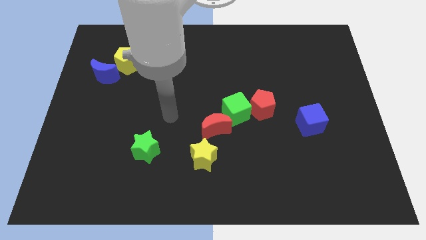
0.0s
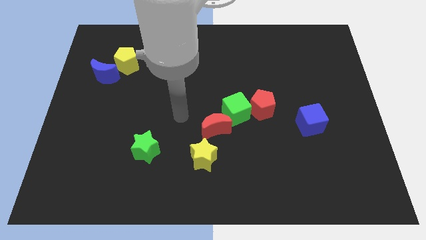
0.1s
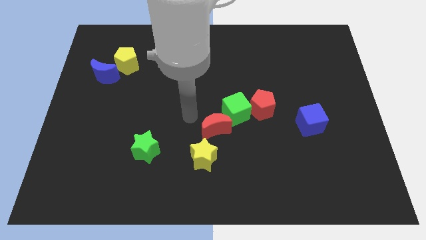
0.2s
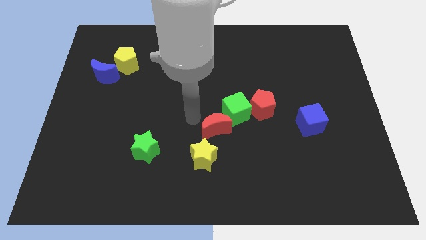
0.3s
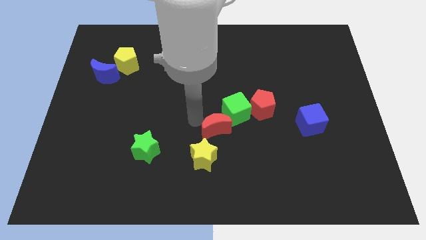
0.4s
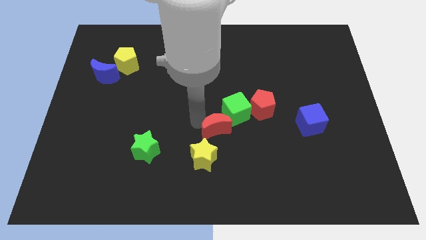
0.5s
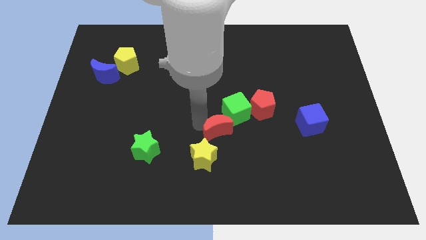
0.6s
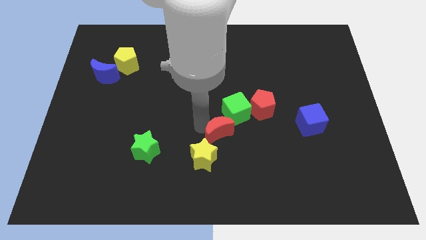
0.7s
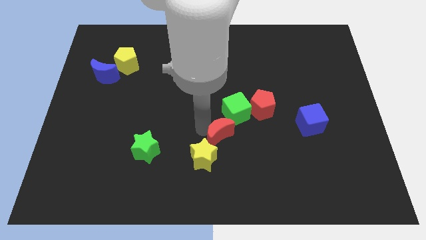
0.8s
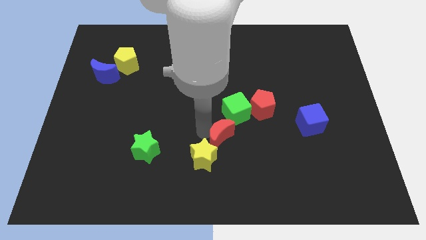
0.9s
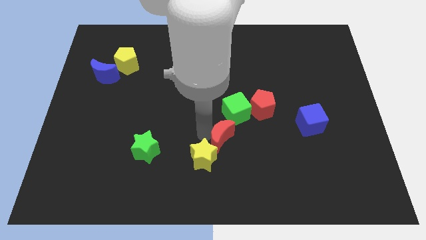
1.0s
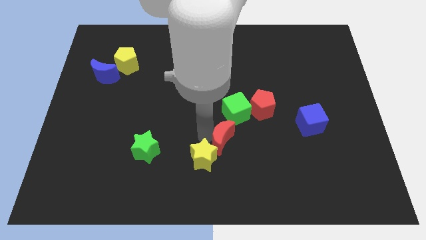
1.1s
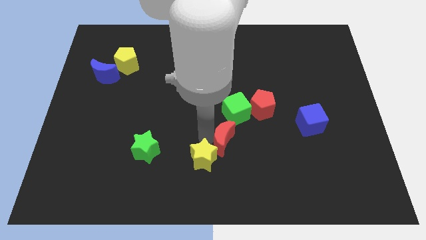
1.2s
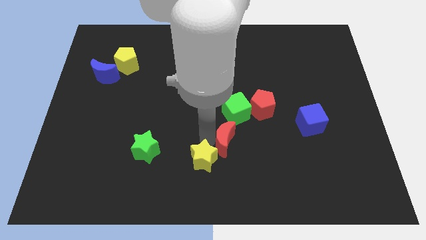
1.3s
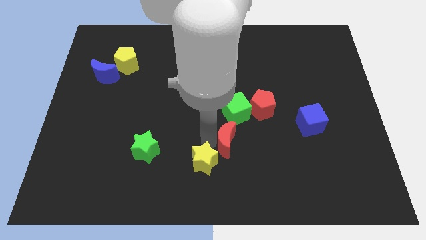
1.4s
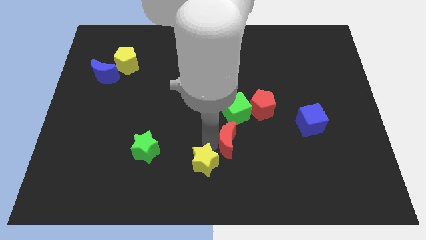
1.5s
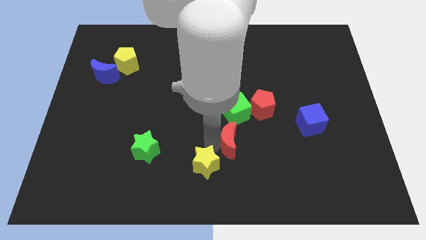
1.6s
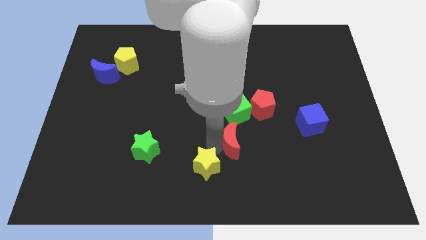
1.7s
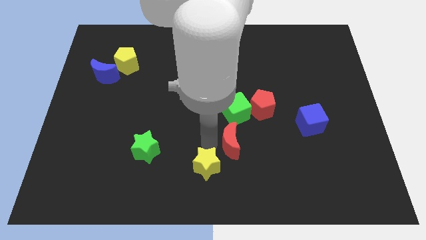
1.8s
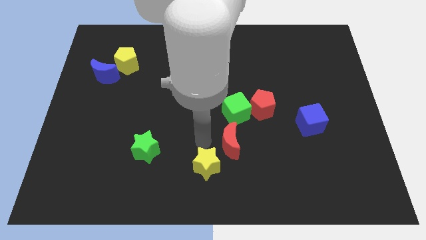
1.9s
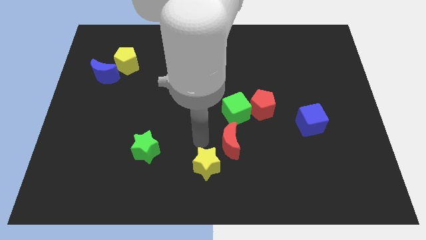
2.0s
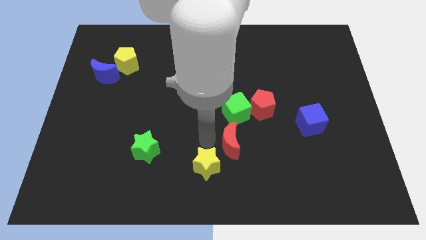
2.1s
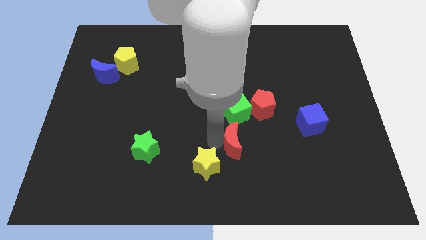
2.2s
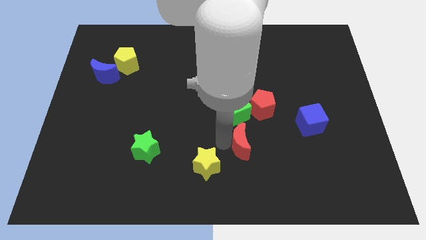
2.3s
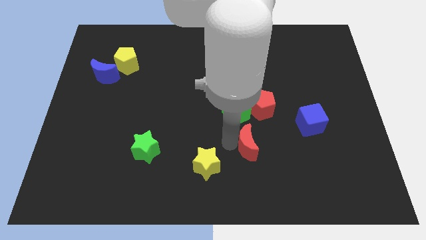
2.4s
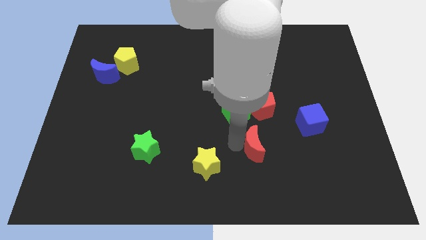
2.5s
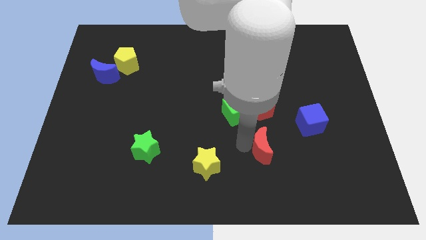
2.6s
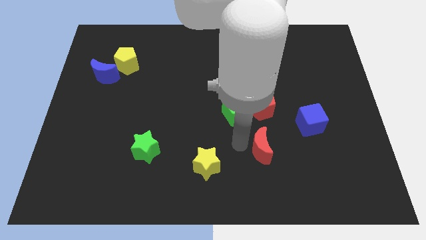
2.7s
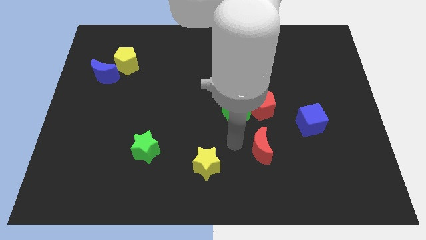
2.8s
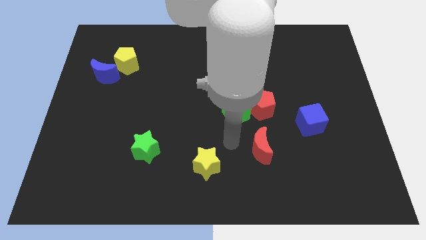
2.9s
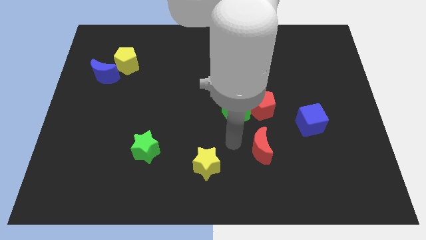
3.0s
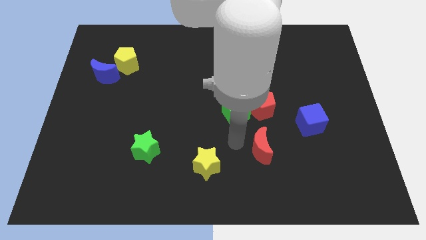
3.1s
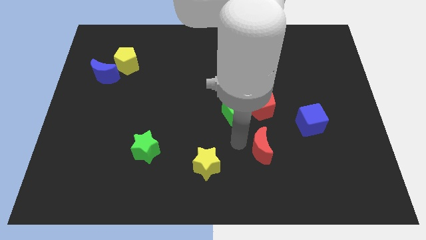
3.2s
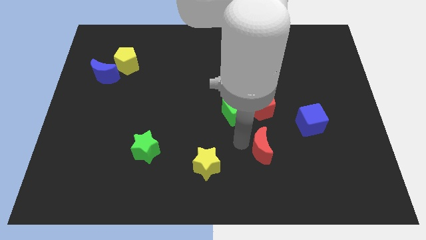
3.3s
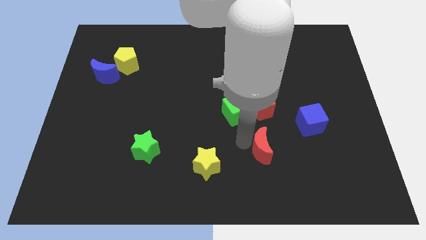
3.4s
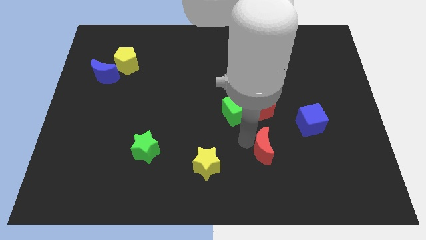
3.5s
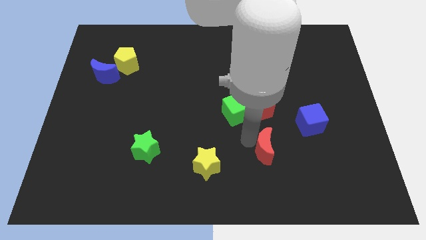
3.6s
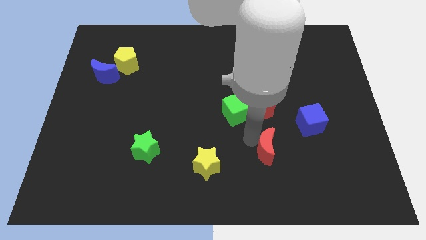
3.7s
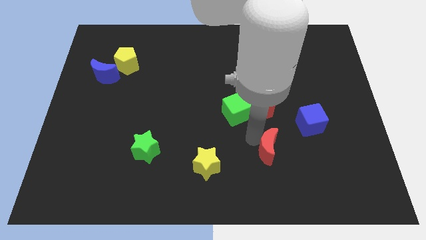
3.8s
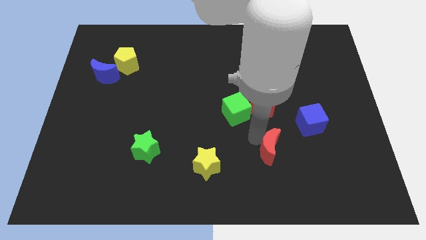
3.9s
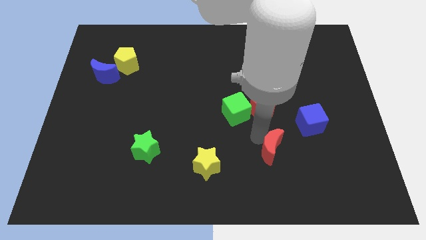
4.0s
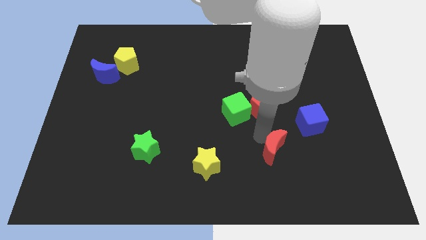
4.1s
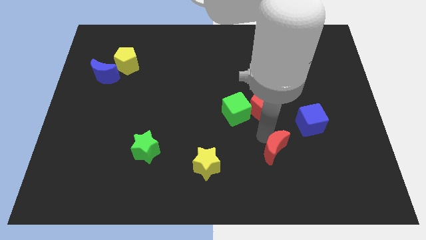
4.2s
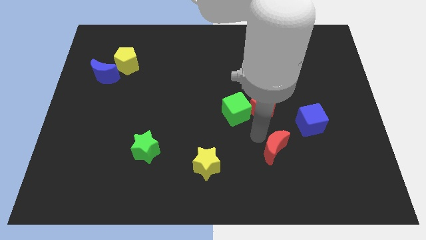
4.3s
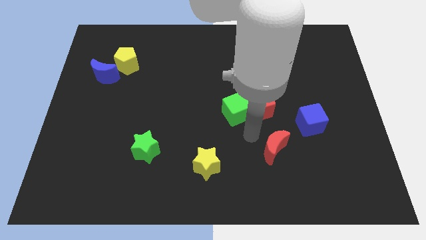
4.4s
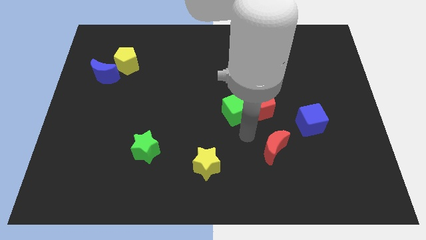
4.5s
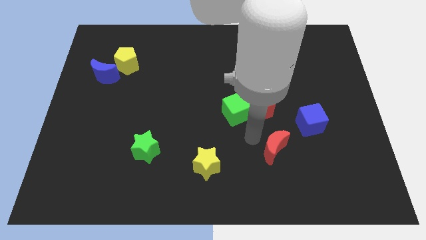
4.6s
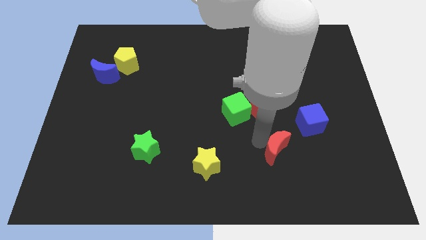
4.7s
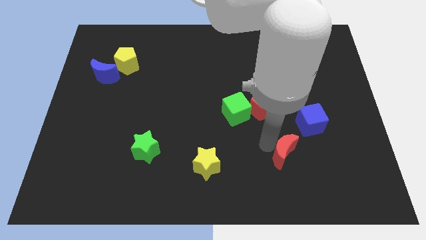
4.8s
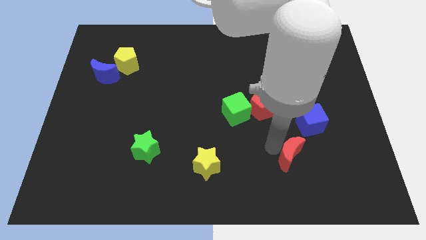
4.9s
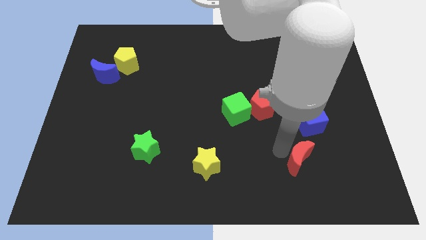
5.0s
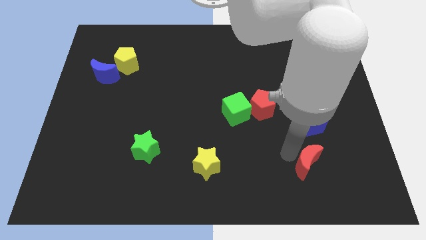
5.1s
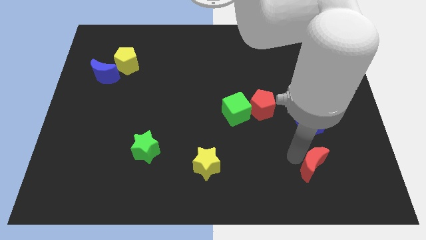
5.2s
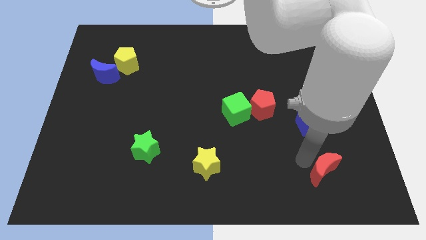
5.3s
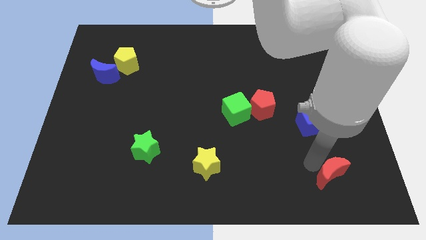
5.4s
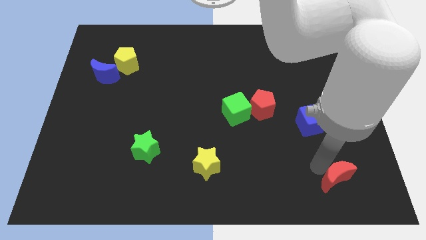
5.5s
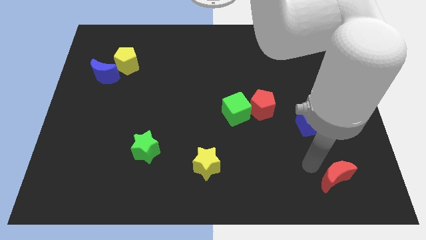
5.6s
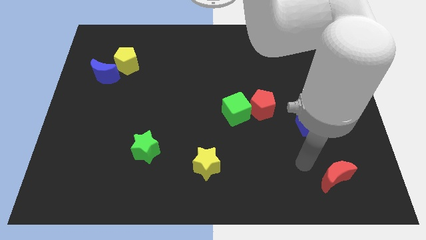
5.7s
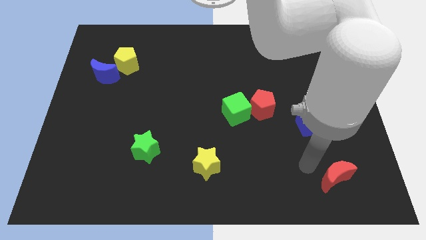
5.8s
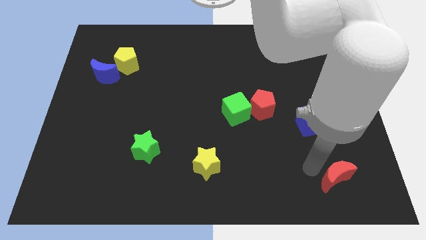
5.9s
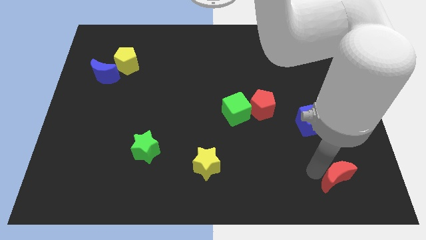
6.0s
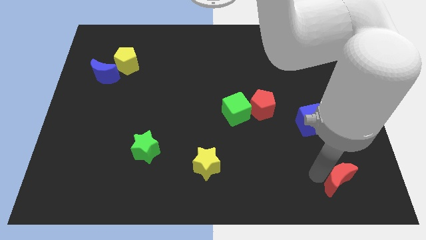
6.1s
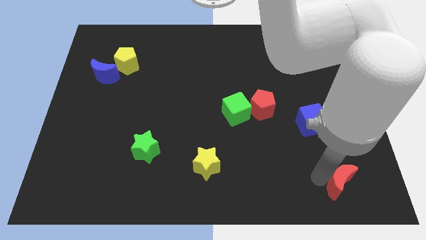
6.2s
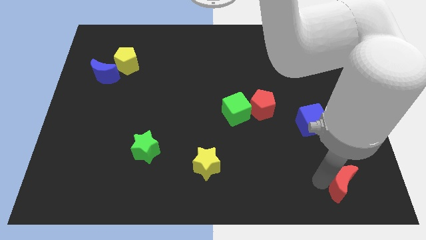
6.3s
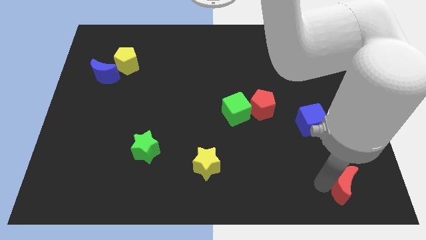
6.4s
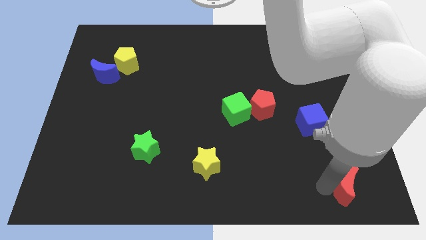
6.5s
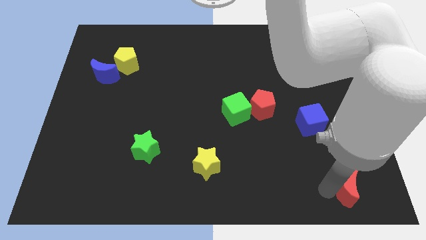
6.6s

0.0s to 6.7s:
slide the red moon to the bottom right corner
